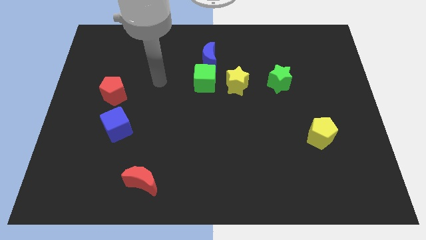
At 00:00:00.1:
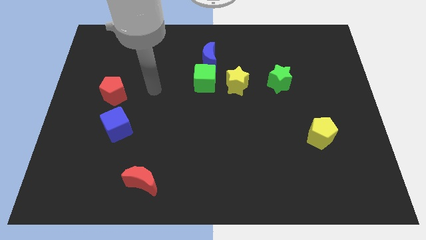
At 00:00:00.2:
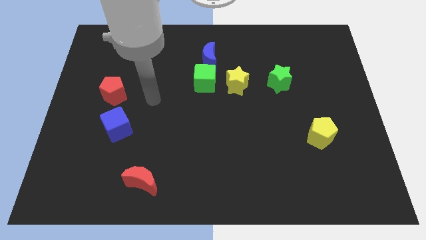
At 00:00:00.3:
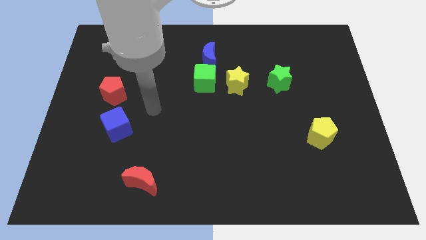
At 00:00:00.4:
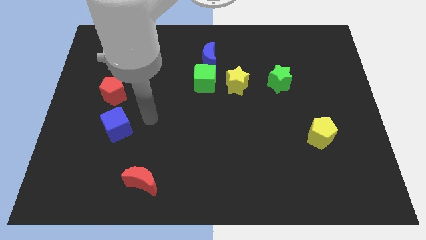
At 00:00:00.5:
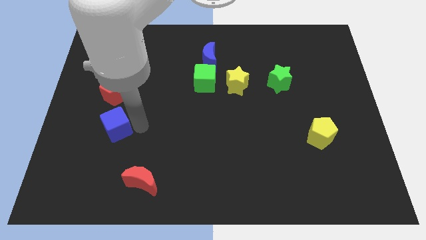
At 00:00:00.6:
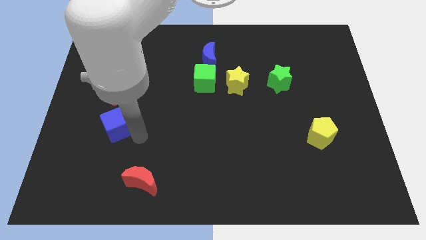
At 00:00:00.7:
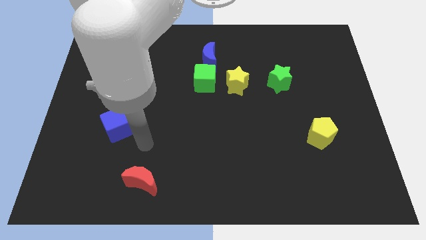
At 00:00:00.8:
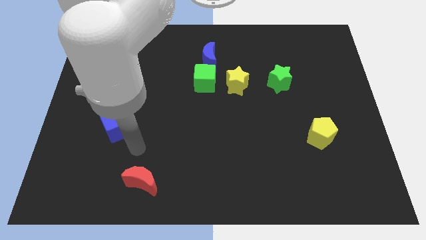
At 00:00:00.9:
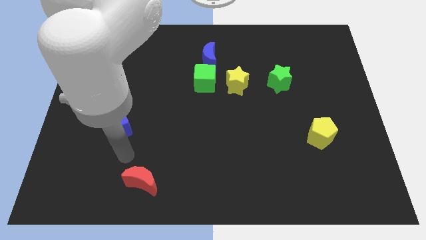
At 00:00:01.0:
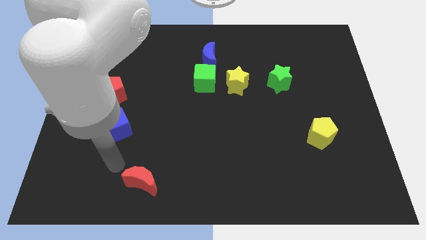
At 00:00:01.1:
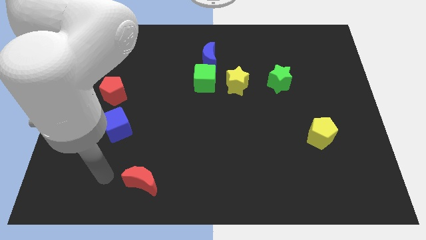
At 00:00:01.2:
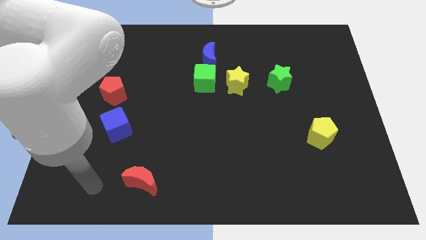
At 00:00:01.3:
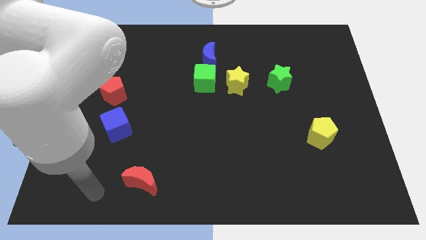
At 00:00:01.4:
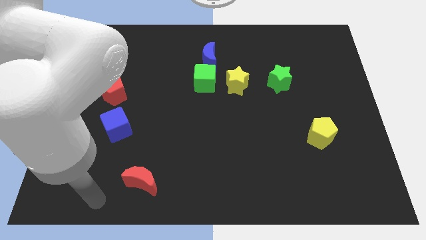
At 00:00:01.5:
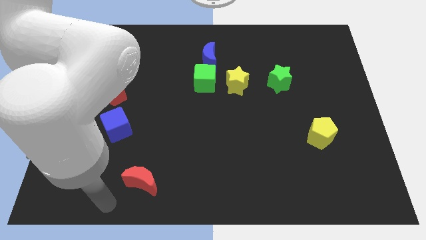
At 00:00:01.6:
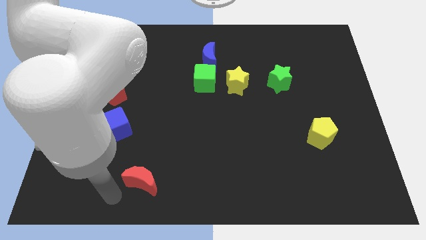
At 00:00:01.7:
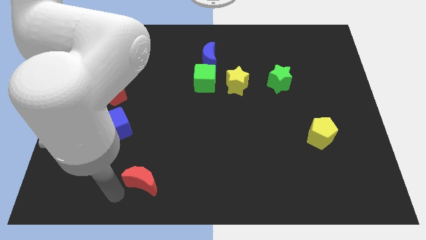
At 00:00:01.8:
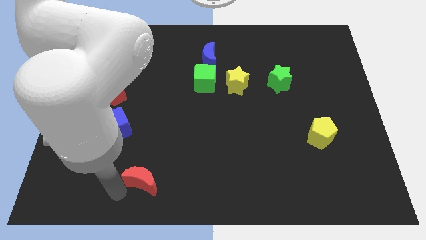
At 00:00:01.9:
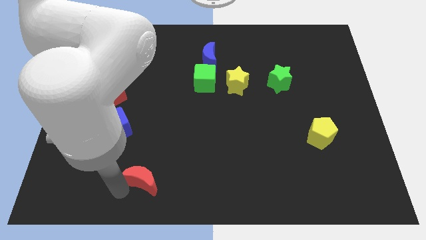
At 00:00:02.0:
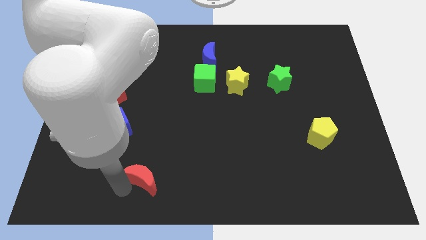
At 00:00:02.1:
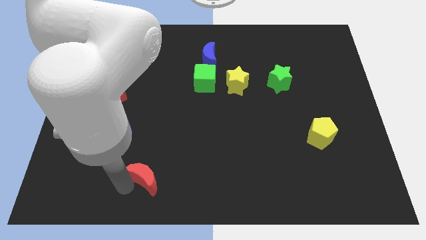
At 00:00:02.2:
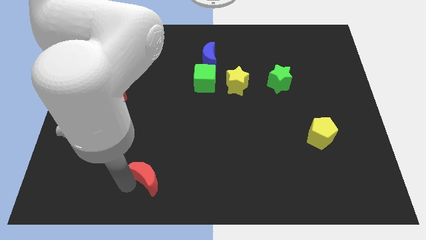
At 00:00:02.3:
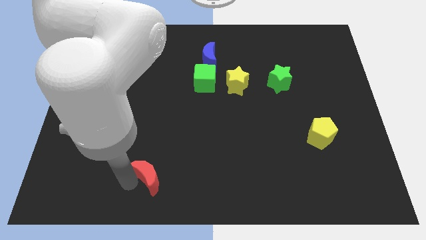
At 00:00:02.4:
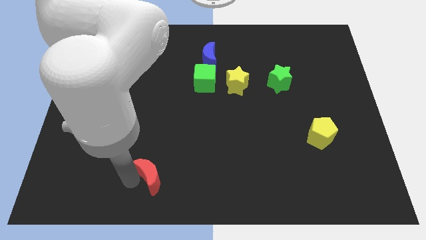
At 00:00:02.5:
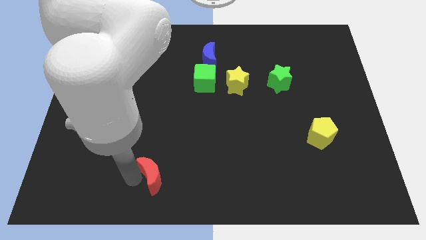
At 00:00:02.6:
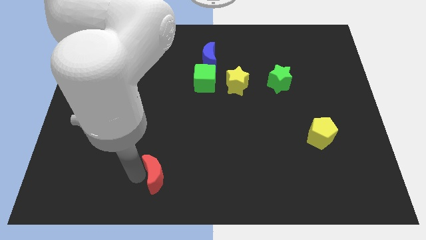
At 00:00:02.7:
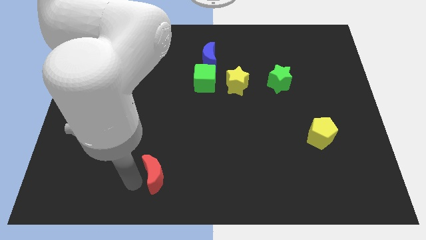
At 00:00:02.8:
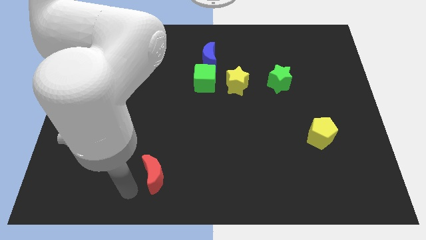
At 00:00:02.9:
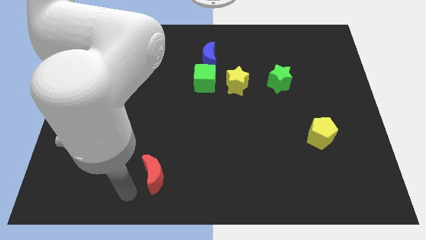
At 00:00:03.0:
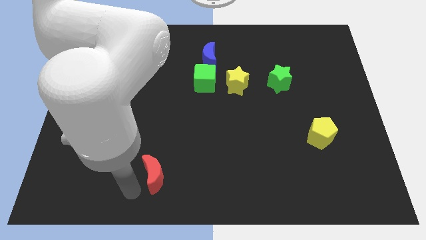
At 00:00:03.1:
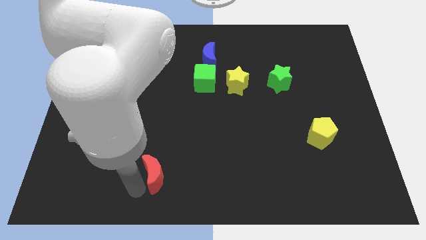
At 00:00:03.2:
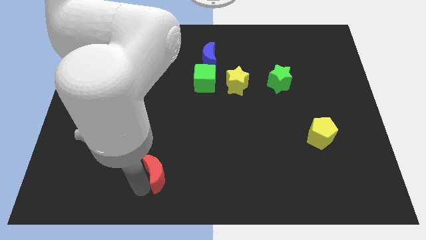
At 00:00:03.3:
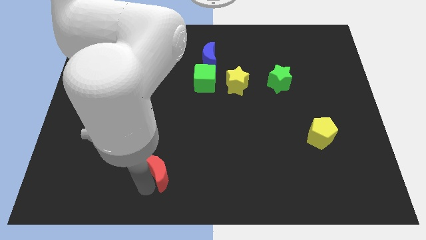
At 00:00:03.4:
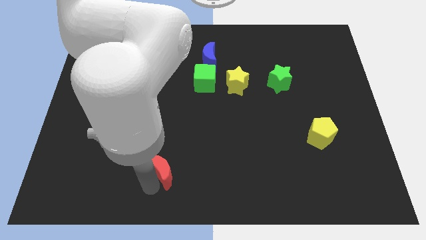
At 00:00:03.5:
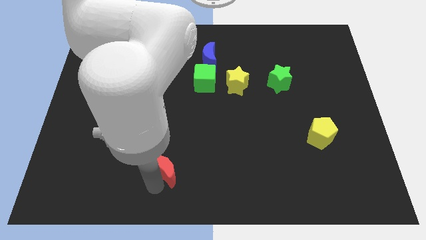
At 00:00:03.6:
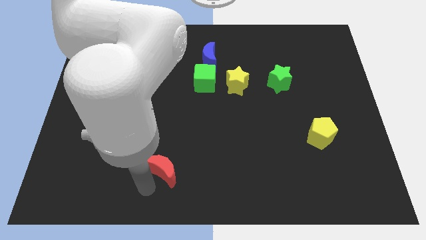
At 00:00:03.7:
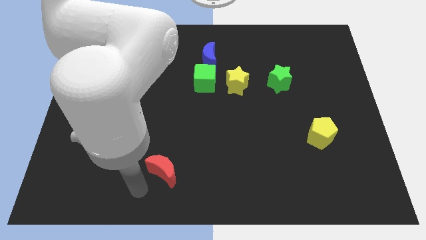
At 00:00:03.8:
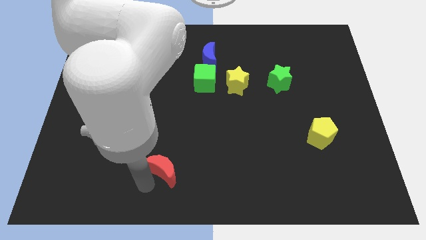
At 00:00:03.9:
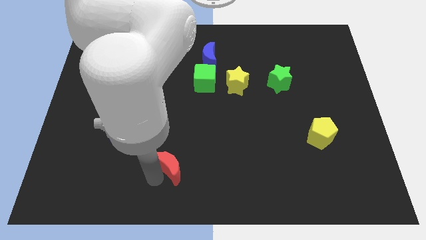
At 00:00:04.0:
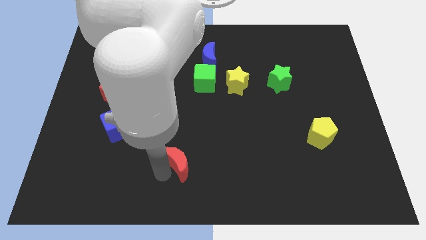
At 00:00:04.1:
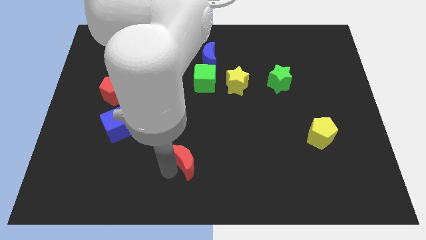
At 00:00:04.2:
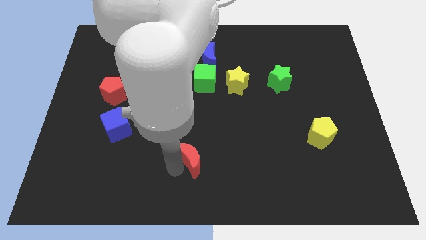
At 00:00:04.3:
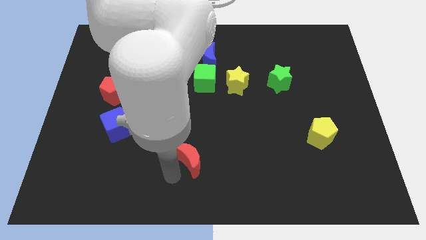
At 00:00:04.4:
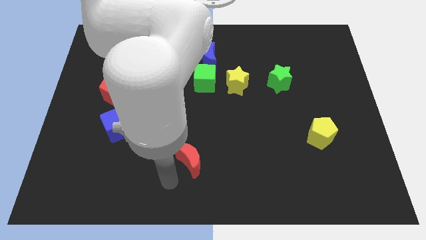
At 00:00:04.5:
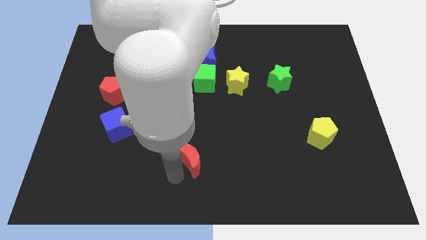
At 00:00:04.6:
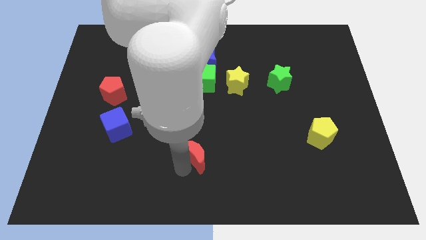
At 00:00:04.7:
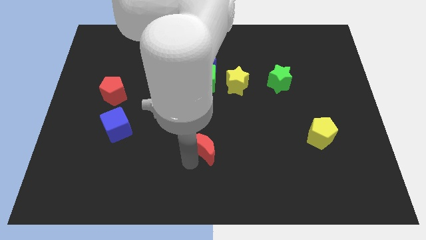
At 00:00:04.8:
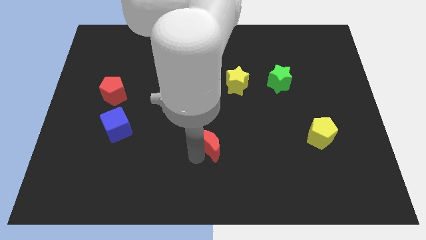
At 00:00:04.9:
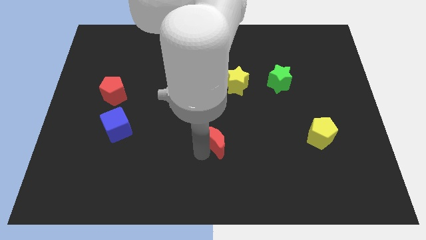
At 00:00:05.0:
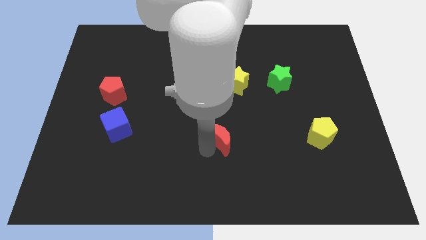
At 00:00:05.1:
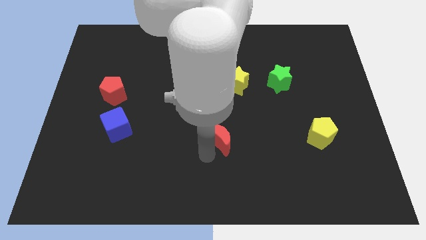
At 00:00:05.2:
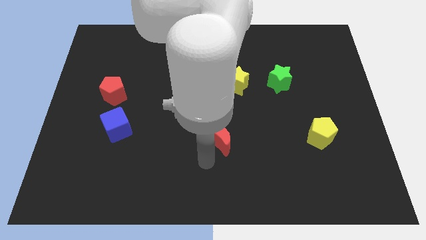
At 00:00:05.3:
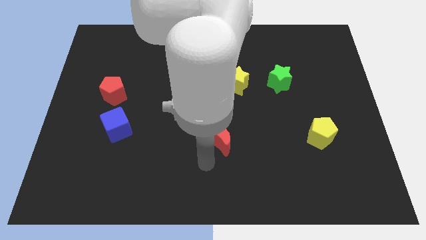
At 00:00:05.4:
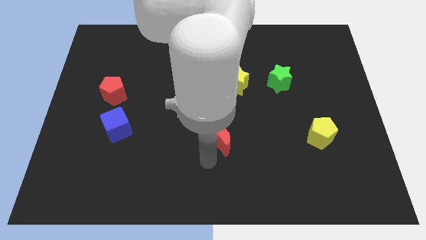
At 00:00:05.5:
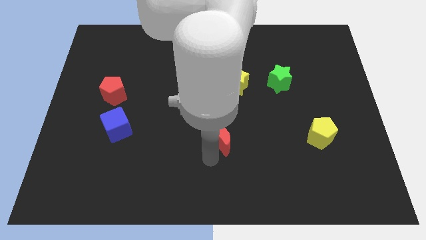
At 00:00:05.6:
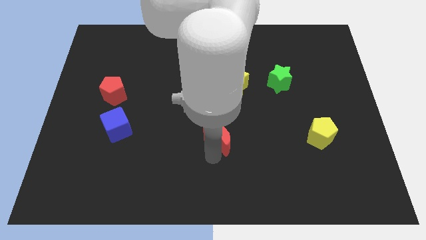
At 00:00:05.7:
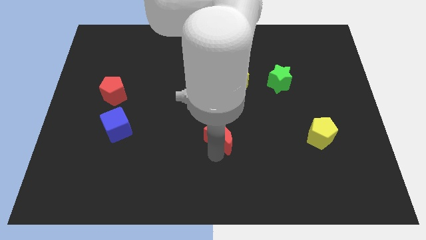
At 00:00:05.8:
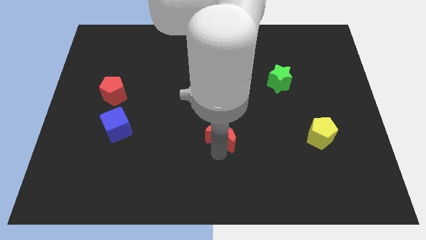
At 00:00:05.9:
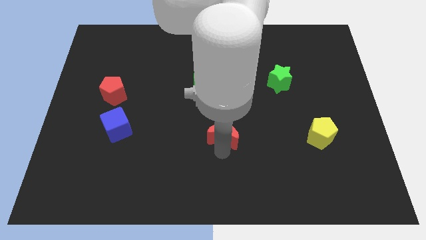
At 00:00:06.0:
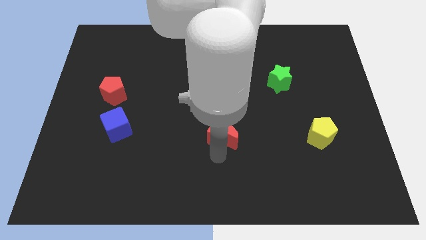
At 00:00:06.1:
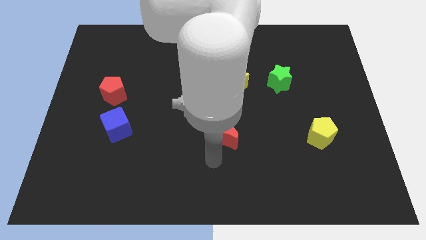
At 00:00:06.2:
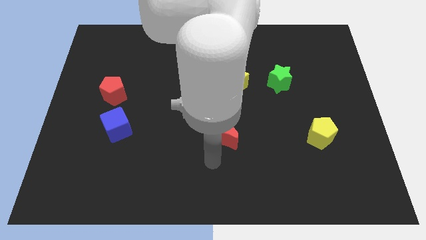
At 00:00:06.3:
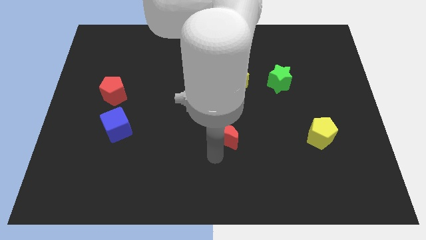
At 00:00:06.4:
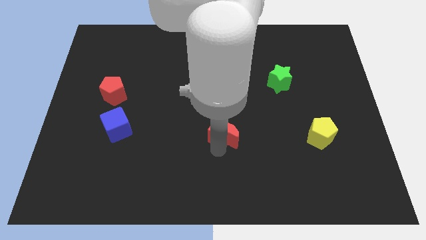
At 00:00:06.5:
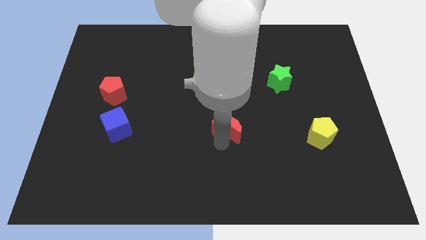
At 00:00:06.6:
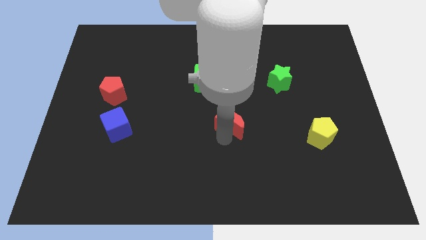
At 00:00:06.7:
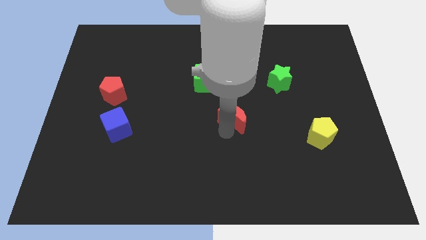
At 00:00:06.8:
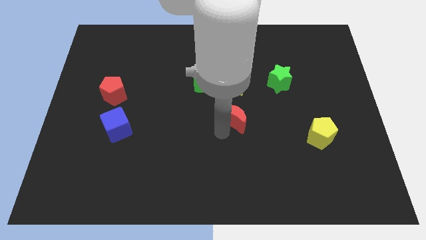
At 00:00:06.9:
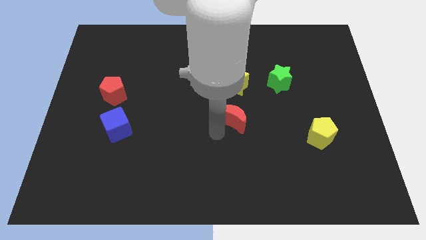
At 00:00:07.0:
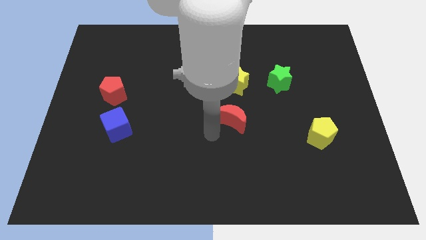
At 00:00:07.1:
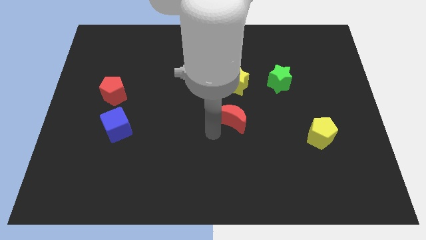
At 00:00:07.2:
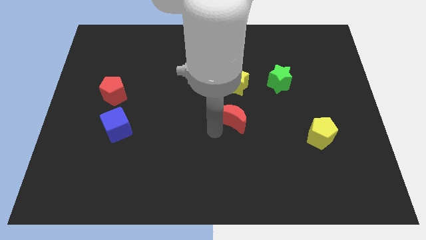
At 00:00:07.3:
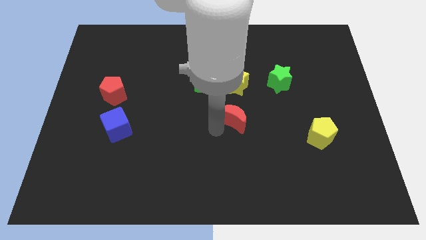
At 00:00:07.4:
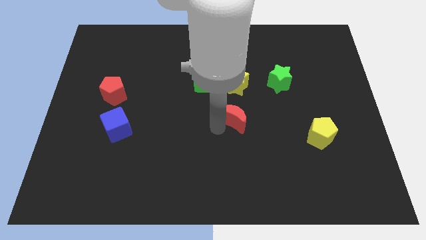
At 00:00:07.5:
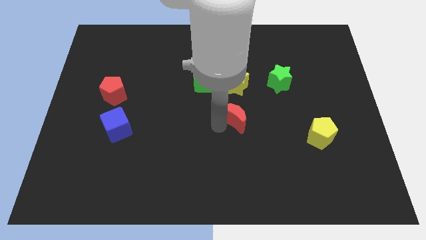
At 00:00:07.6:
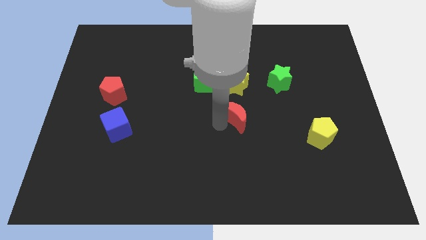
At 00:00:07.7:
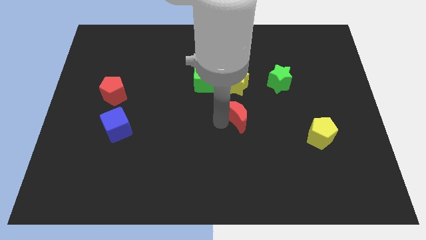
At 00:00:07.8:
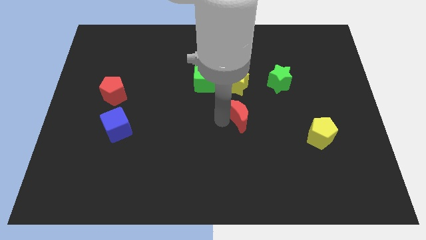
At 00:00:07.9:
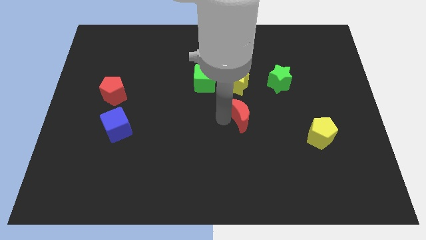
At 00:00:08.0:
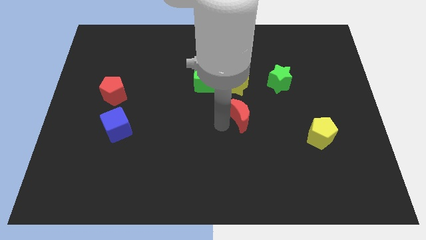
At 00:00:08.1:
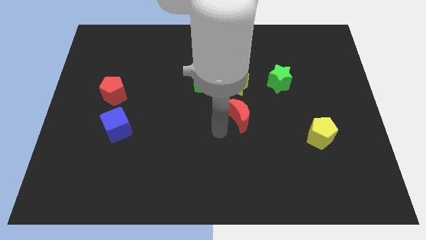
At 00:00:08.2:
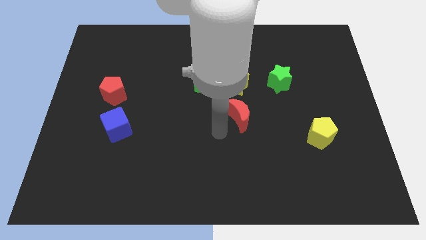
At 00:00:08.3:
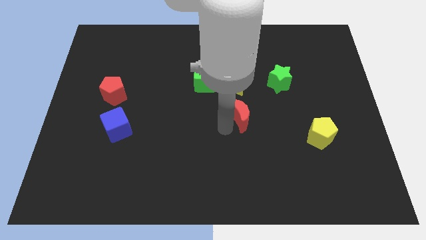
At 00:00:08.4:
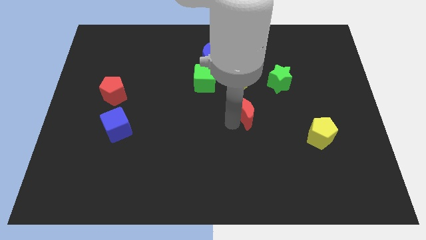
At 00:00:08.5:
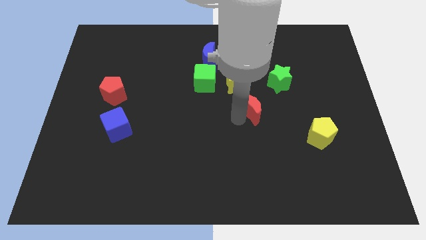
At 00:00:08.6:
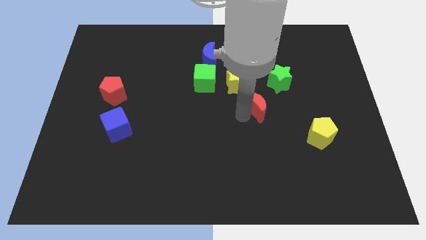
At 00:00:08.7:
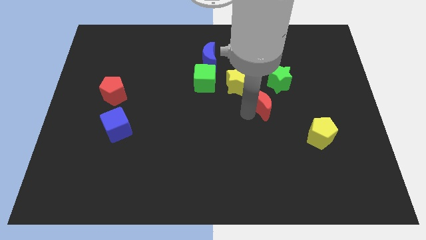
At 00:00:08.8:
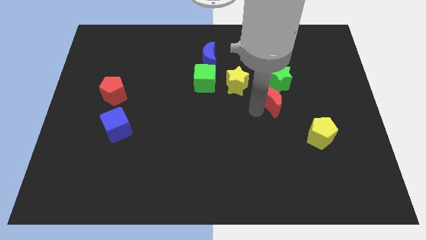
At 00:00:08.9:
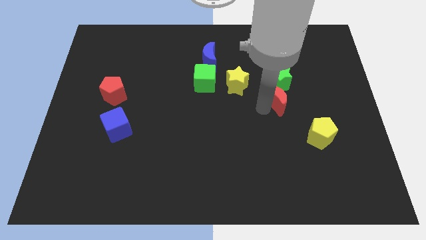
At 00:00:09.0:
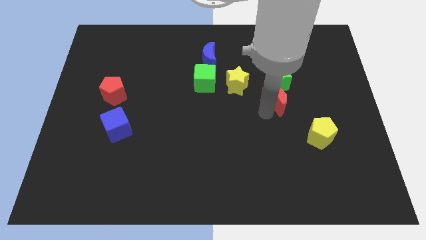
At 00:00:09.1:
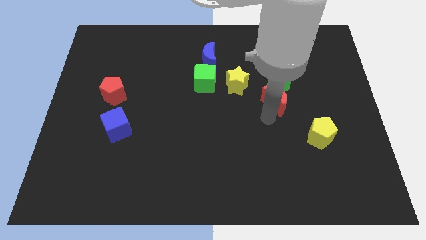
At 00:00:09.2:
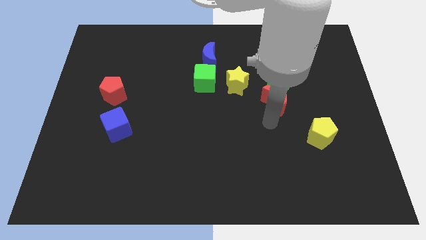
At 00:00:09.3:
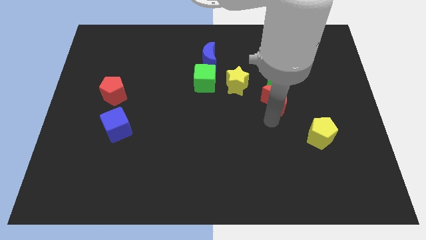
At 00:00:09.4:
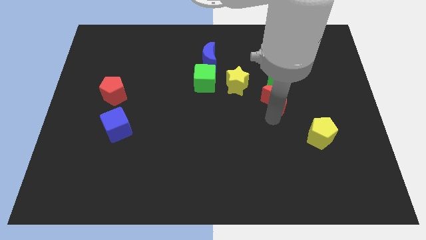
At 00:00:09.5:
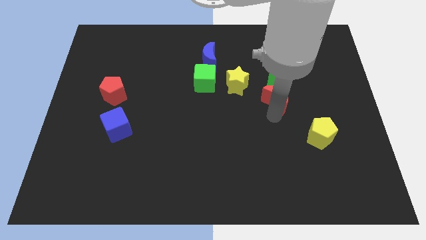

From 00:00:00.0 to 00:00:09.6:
push the red moon to the green star
